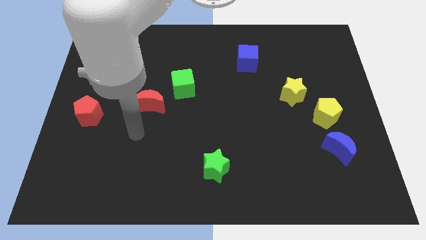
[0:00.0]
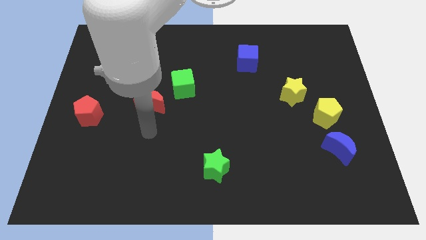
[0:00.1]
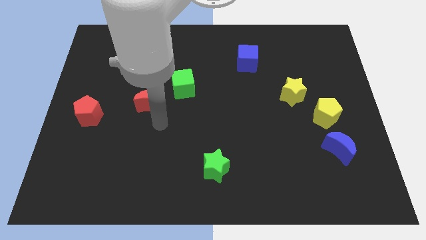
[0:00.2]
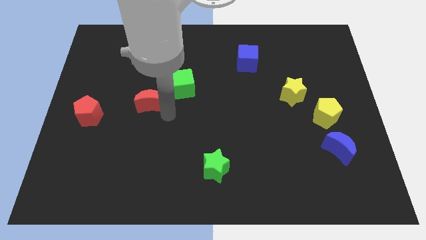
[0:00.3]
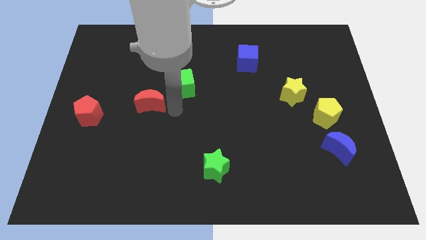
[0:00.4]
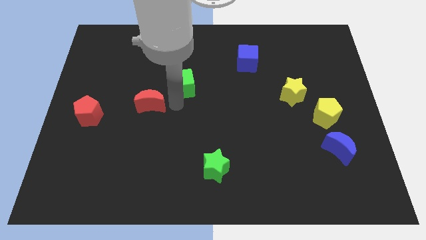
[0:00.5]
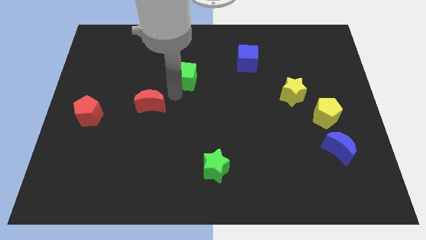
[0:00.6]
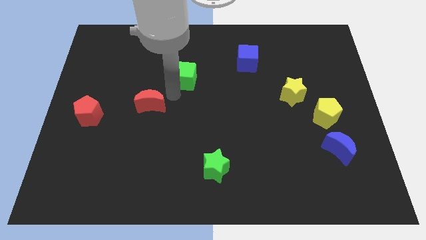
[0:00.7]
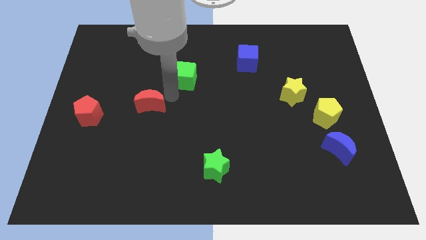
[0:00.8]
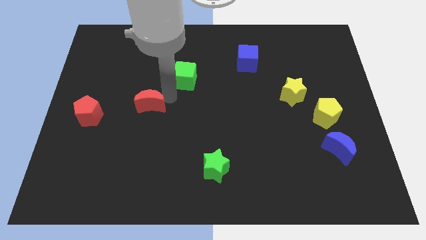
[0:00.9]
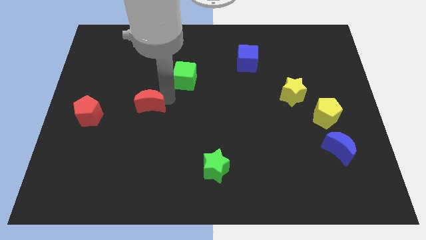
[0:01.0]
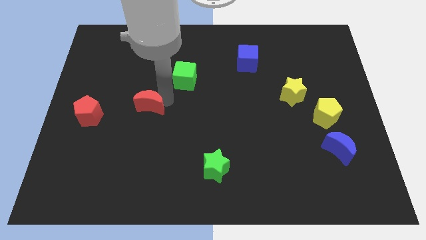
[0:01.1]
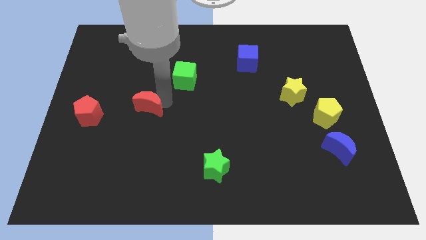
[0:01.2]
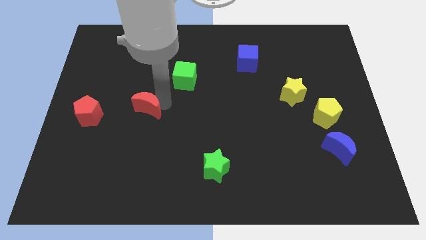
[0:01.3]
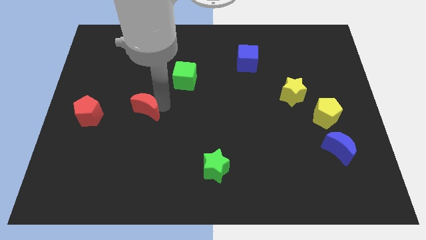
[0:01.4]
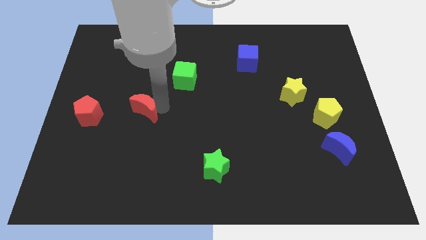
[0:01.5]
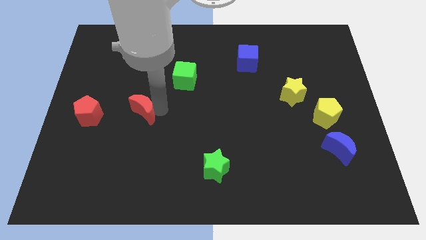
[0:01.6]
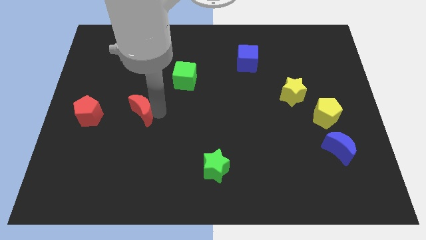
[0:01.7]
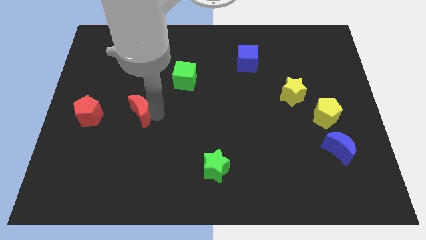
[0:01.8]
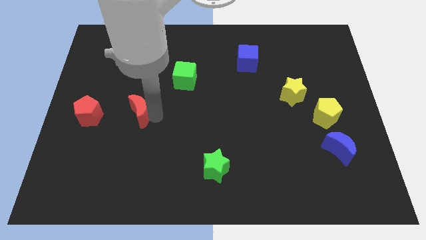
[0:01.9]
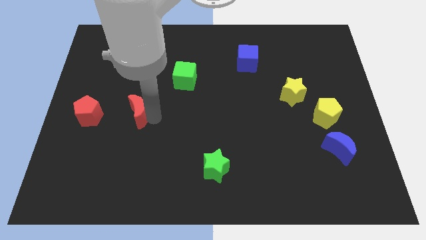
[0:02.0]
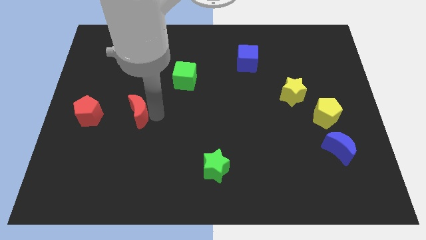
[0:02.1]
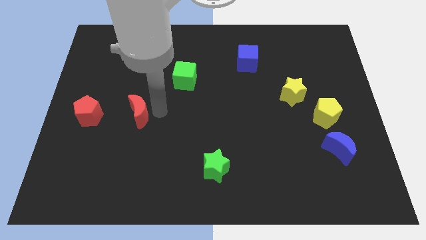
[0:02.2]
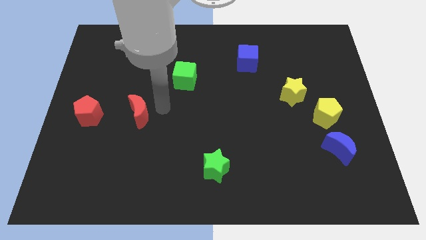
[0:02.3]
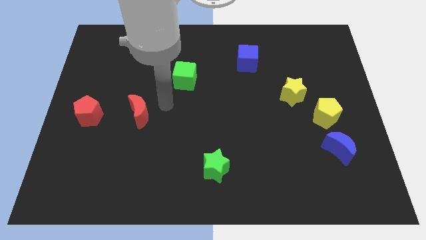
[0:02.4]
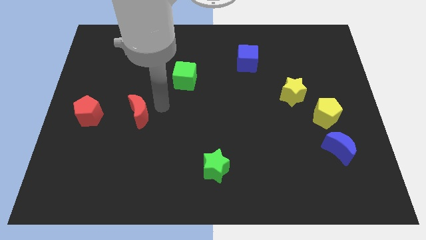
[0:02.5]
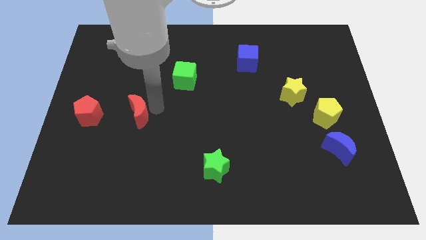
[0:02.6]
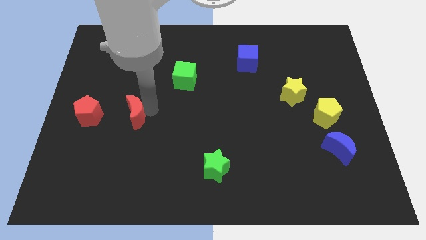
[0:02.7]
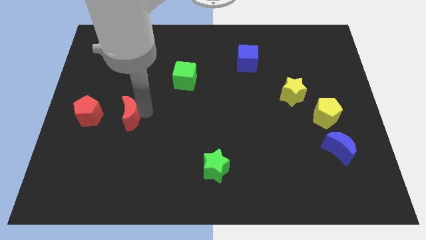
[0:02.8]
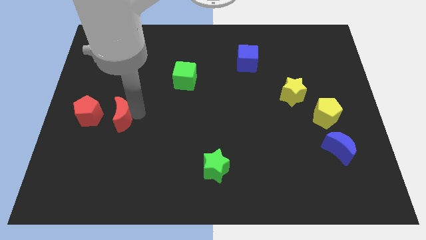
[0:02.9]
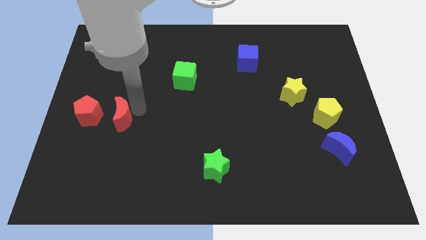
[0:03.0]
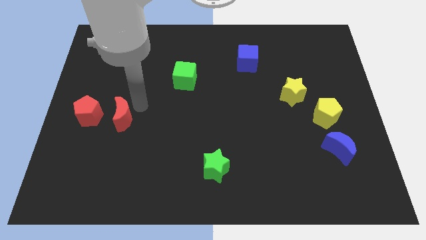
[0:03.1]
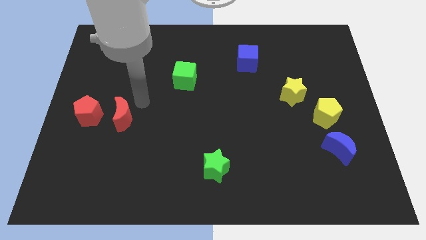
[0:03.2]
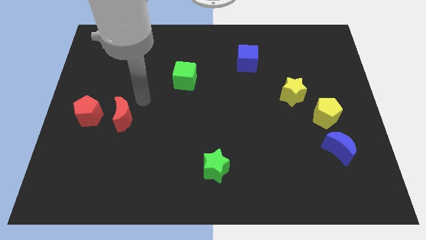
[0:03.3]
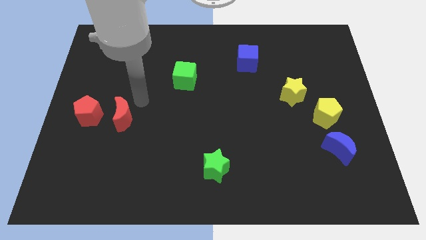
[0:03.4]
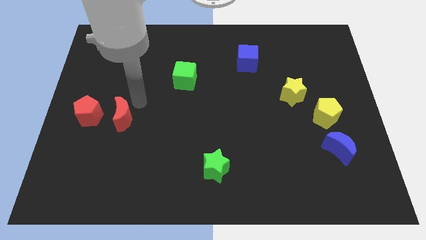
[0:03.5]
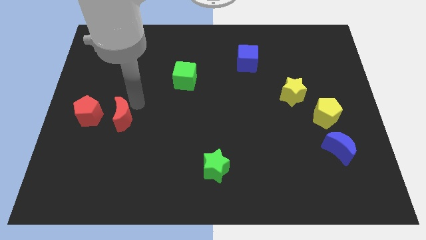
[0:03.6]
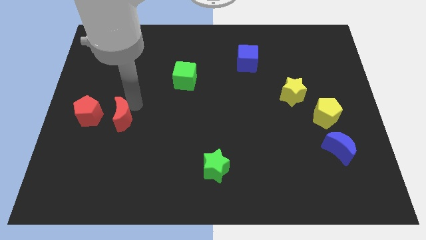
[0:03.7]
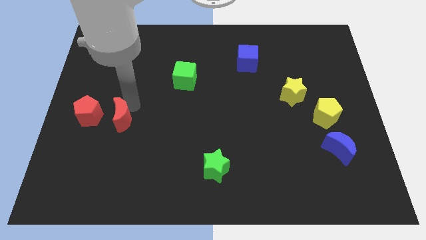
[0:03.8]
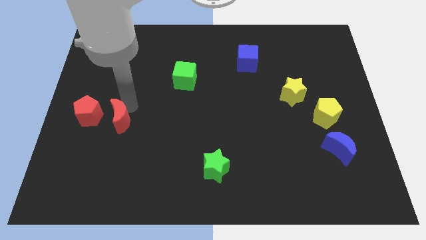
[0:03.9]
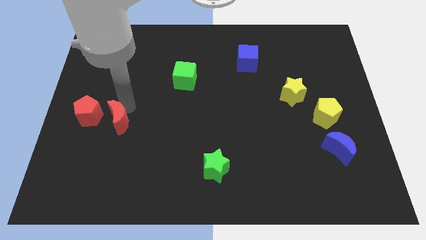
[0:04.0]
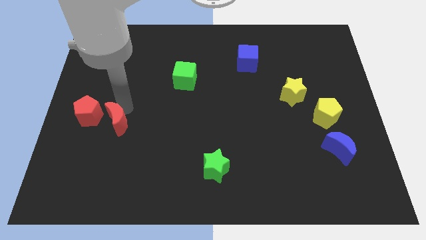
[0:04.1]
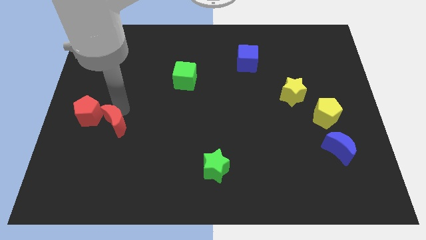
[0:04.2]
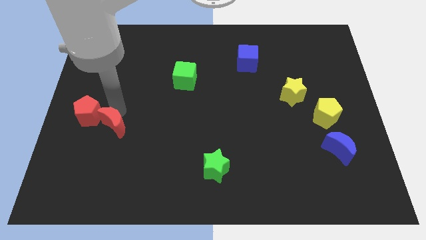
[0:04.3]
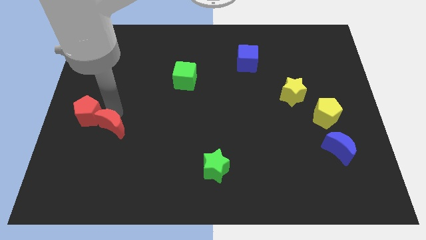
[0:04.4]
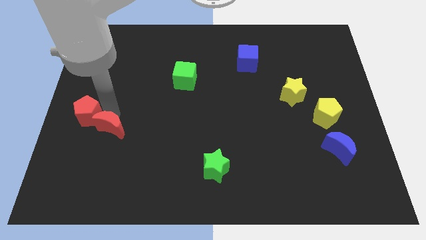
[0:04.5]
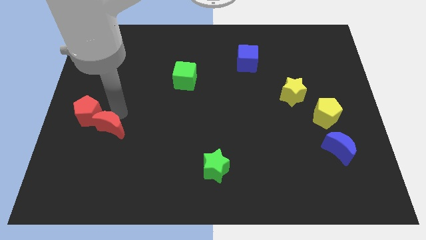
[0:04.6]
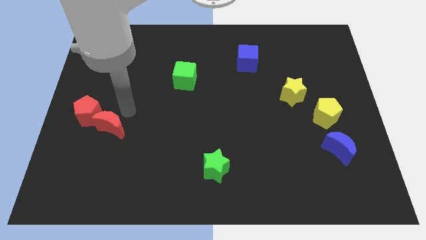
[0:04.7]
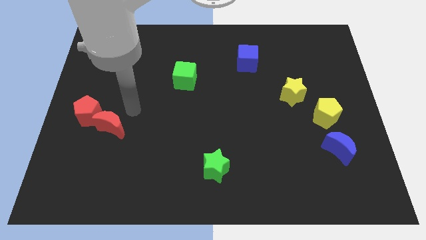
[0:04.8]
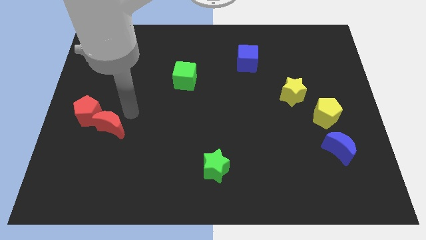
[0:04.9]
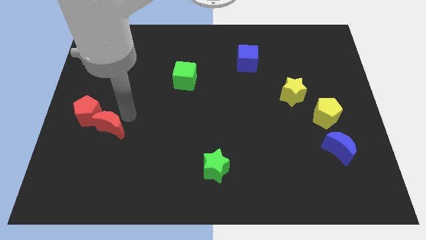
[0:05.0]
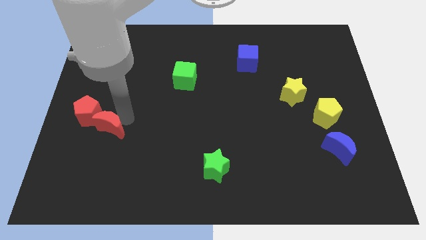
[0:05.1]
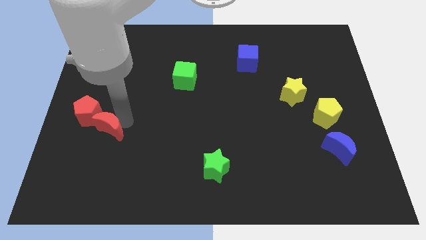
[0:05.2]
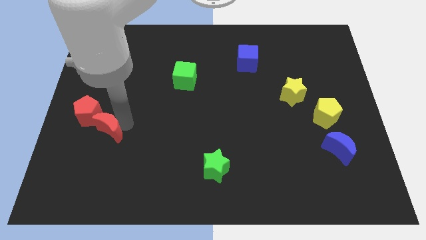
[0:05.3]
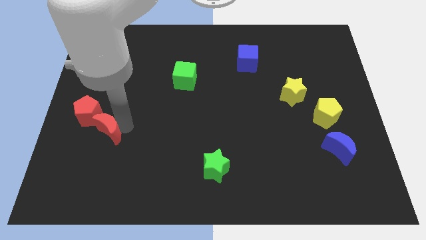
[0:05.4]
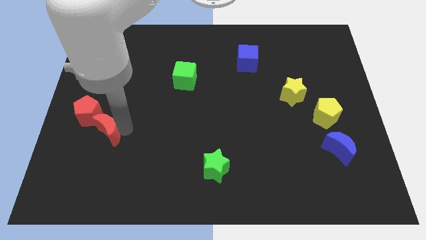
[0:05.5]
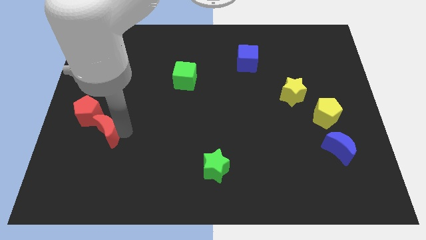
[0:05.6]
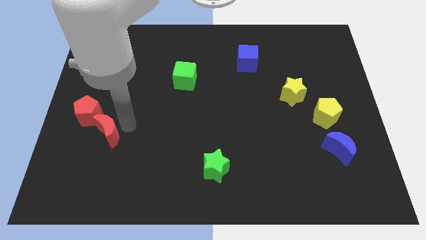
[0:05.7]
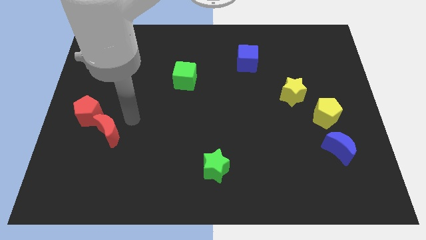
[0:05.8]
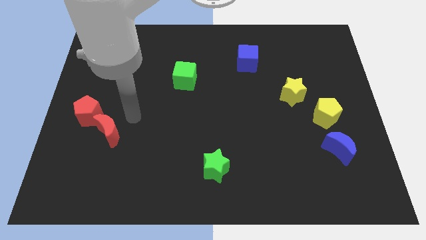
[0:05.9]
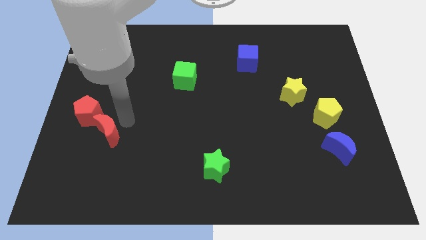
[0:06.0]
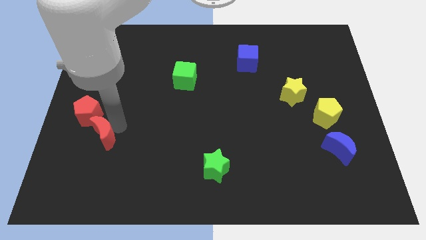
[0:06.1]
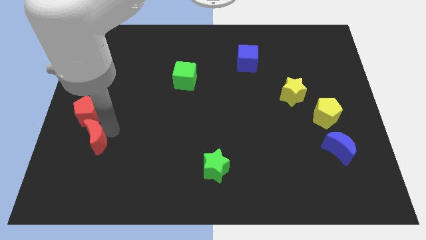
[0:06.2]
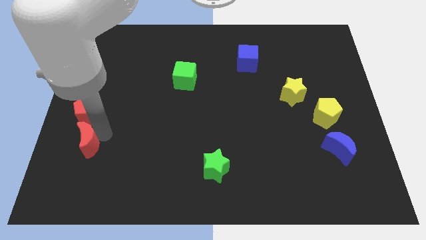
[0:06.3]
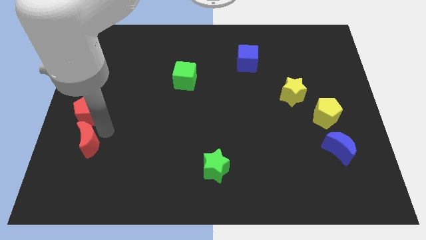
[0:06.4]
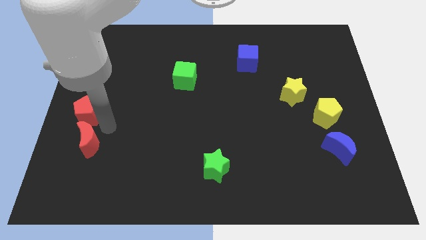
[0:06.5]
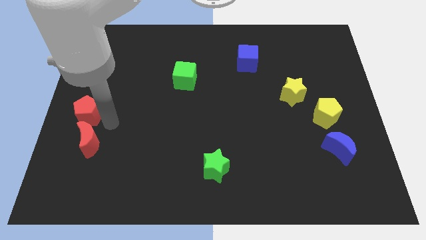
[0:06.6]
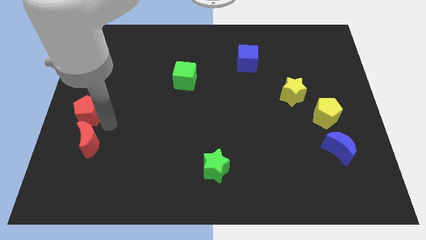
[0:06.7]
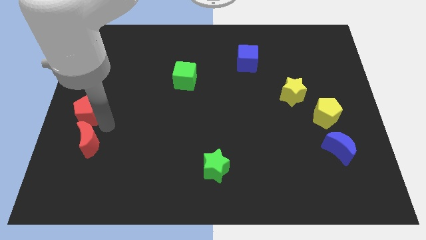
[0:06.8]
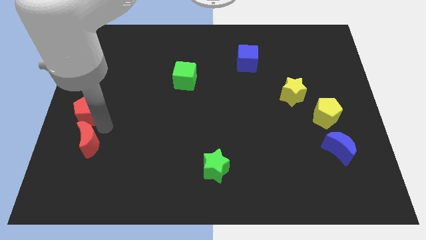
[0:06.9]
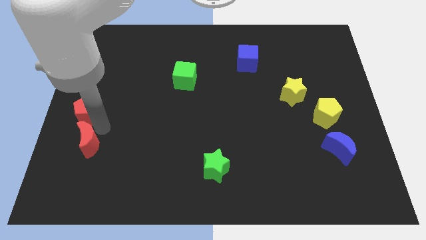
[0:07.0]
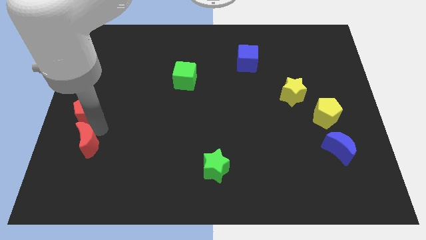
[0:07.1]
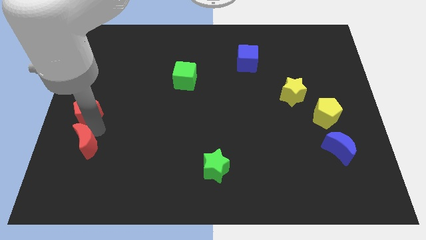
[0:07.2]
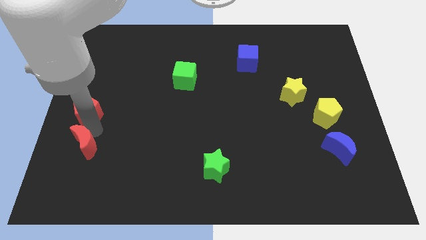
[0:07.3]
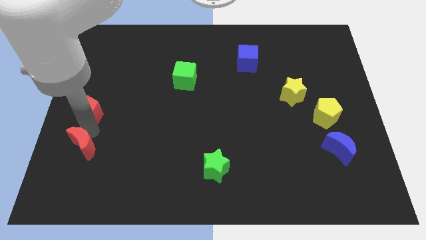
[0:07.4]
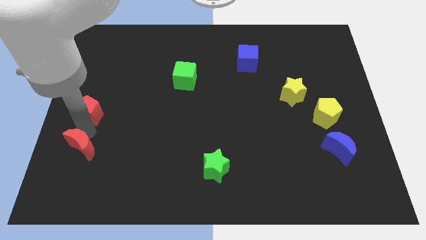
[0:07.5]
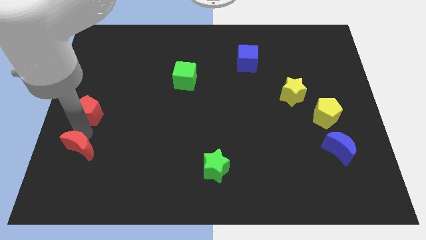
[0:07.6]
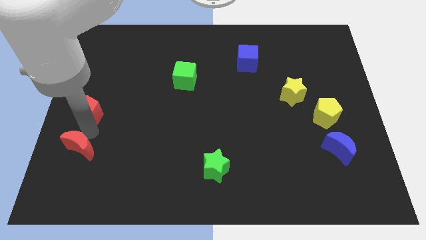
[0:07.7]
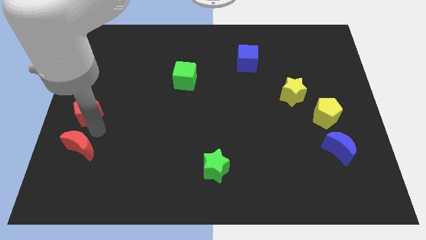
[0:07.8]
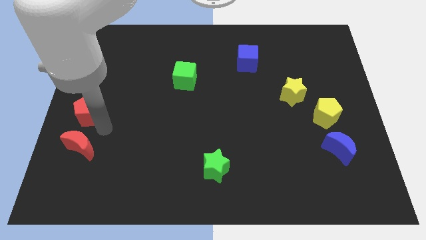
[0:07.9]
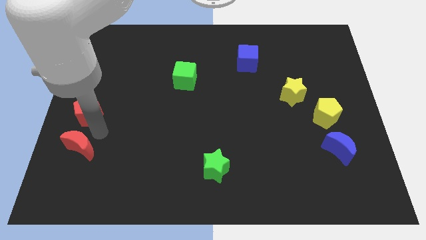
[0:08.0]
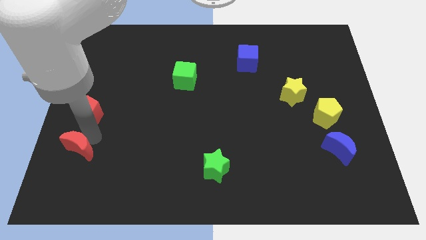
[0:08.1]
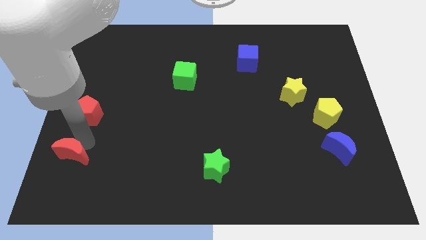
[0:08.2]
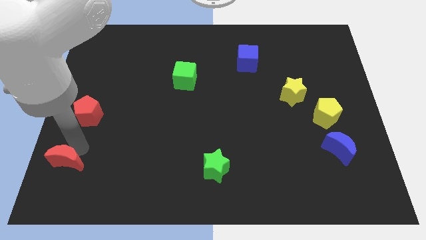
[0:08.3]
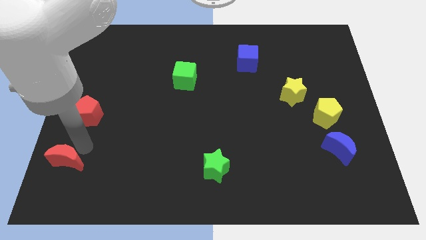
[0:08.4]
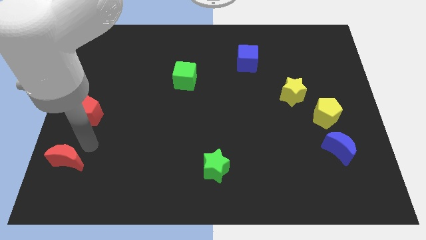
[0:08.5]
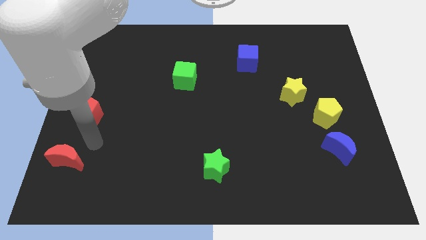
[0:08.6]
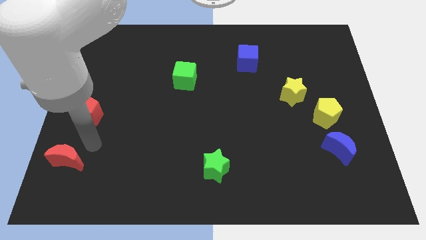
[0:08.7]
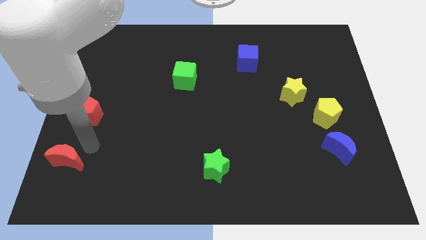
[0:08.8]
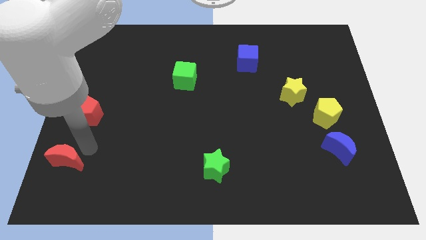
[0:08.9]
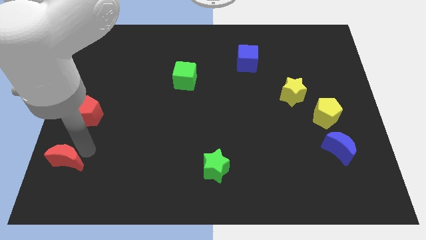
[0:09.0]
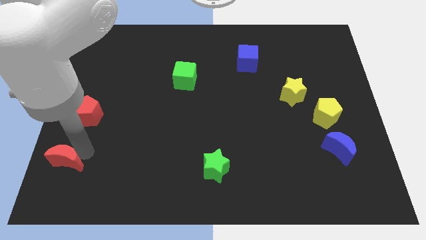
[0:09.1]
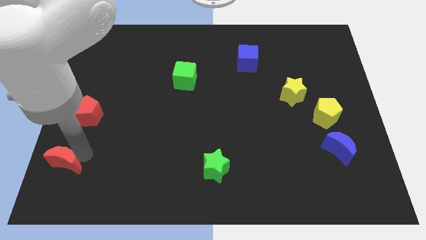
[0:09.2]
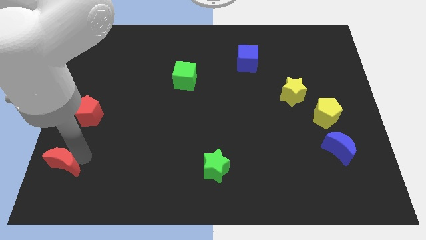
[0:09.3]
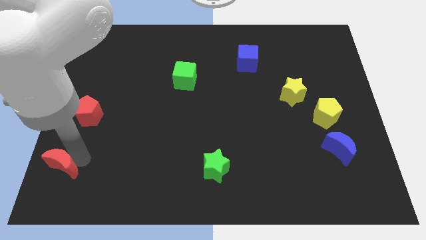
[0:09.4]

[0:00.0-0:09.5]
put the red moon to the bottom left of the board
